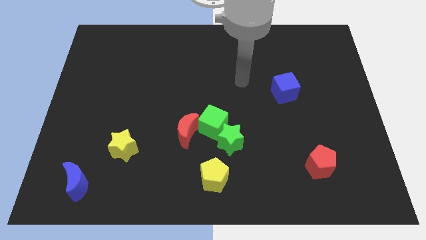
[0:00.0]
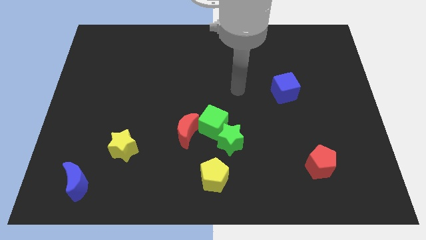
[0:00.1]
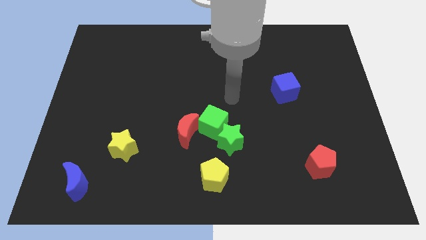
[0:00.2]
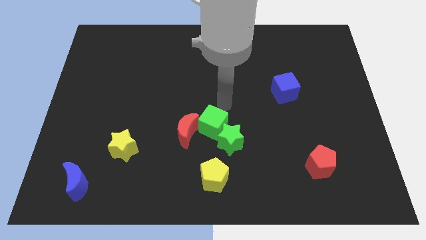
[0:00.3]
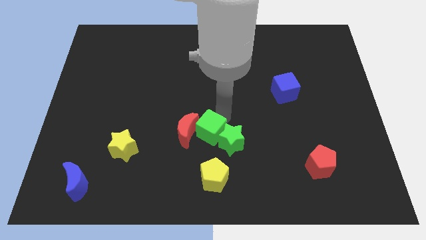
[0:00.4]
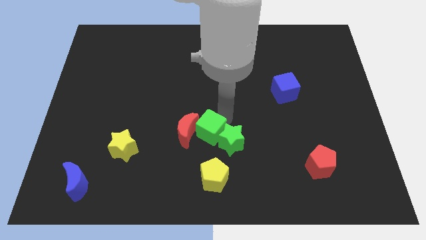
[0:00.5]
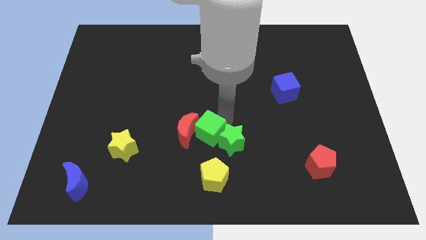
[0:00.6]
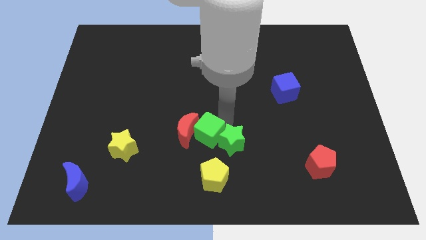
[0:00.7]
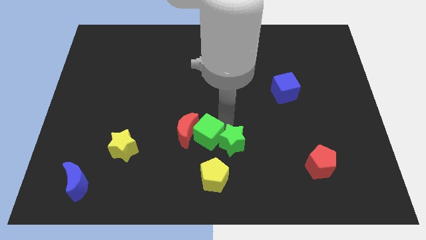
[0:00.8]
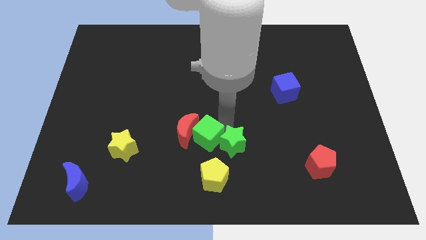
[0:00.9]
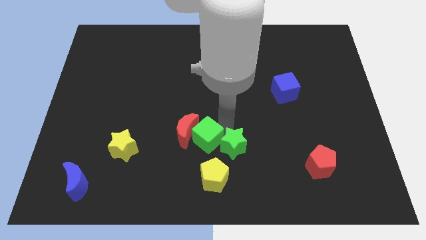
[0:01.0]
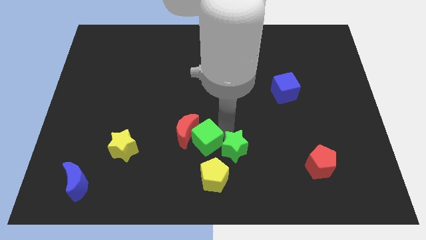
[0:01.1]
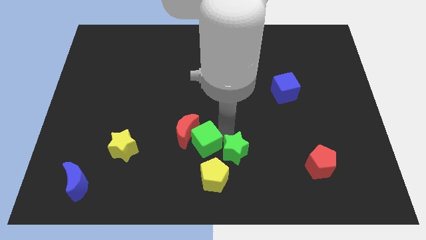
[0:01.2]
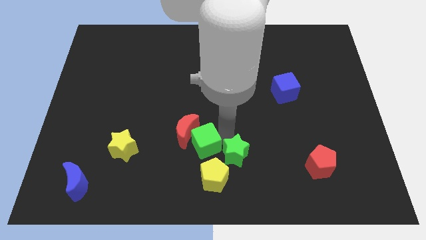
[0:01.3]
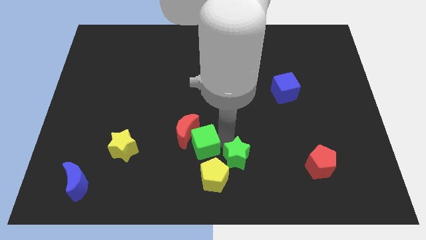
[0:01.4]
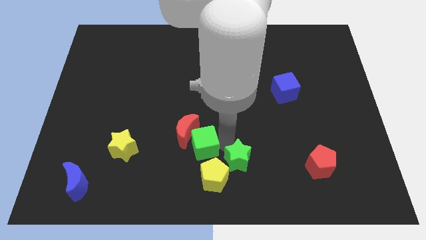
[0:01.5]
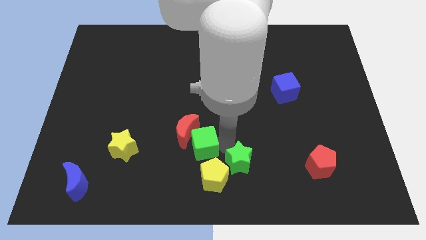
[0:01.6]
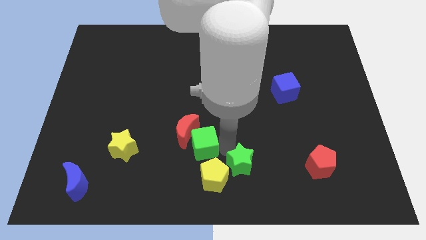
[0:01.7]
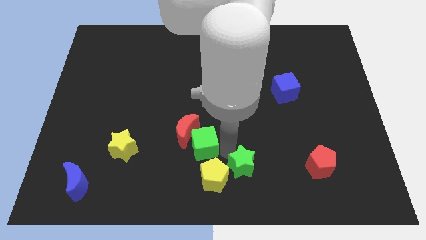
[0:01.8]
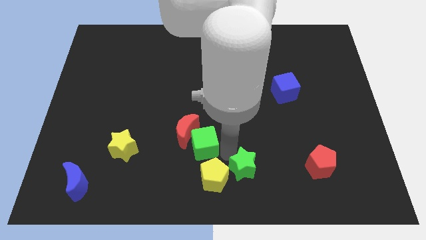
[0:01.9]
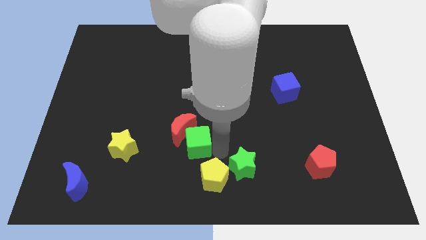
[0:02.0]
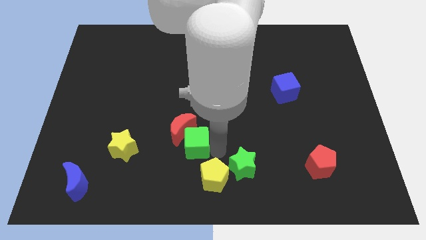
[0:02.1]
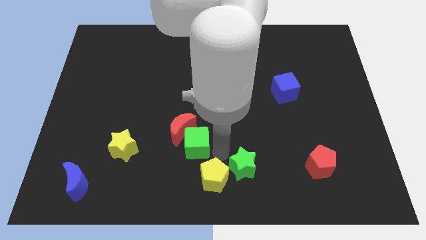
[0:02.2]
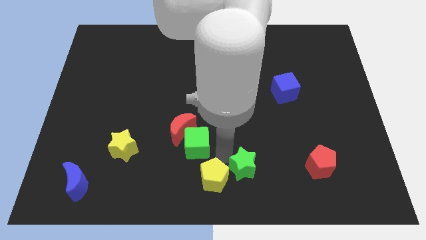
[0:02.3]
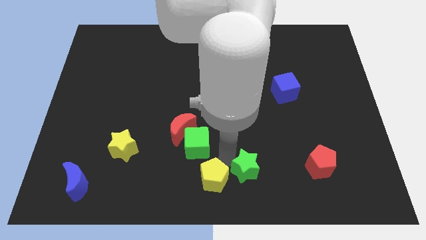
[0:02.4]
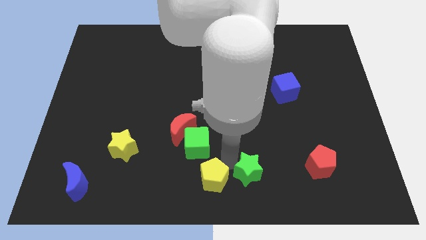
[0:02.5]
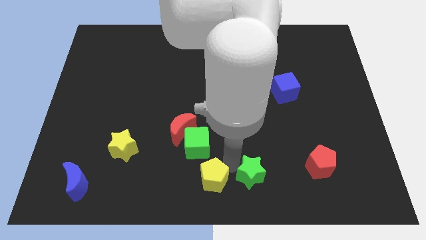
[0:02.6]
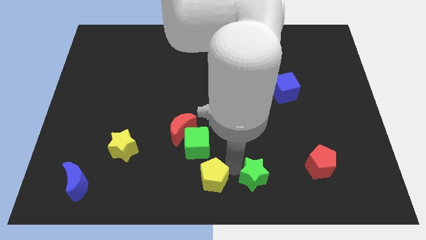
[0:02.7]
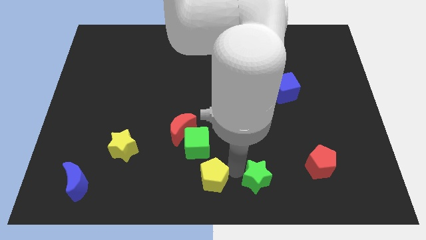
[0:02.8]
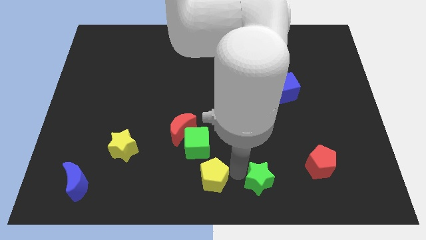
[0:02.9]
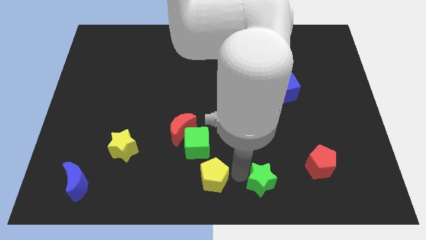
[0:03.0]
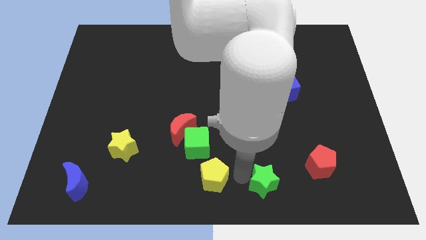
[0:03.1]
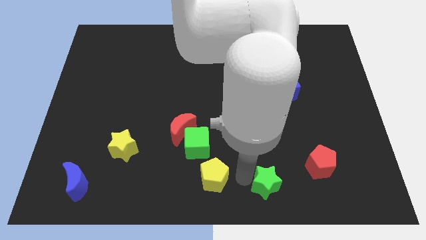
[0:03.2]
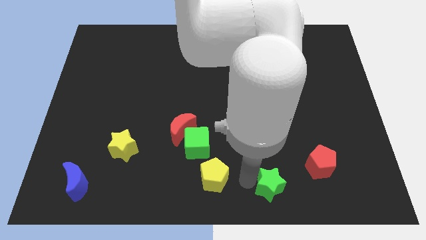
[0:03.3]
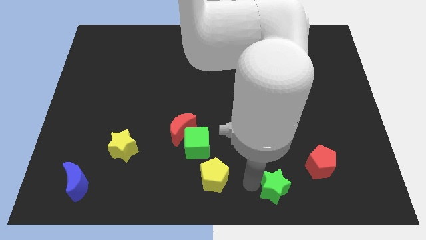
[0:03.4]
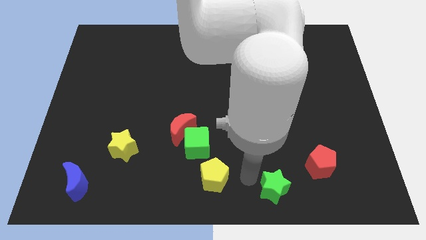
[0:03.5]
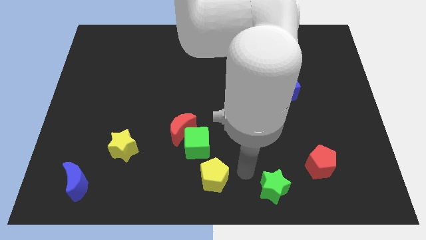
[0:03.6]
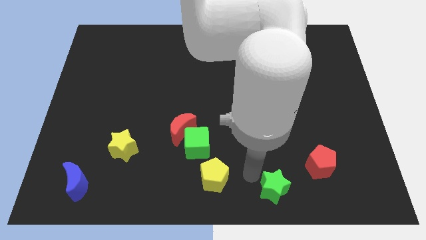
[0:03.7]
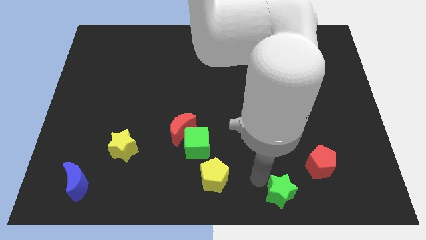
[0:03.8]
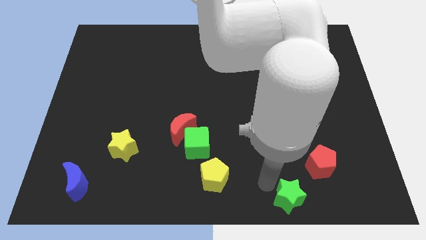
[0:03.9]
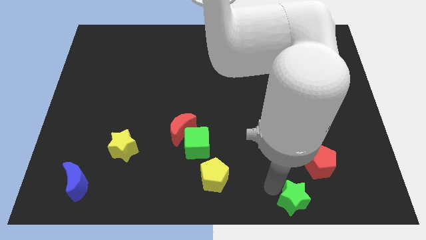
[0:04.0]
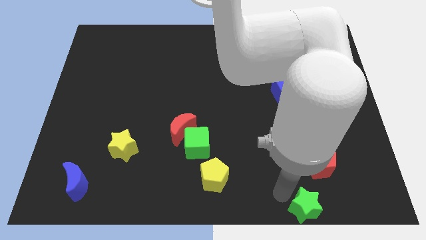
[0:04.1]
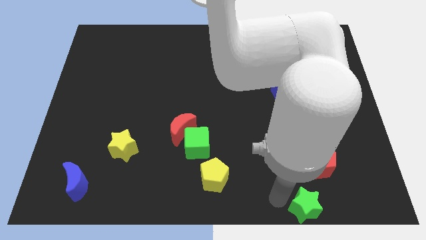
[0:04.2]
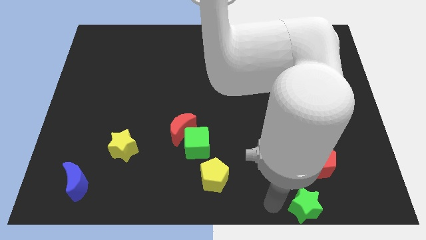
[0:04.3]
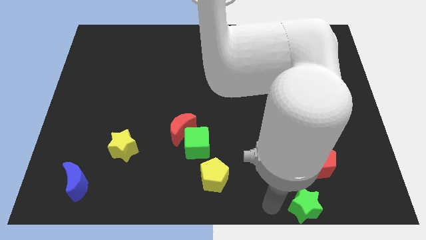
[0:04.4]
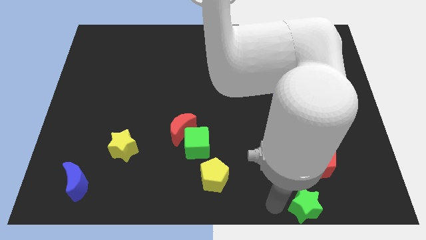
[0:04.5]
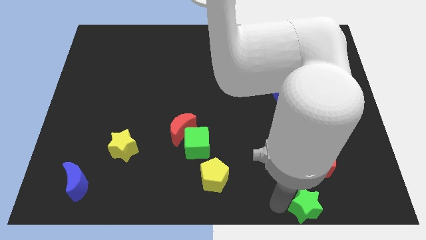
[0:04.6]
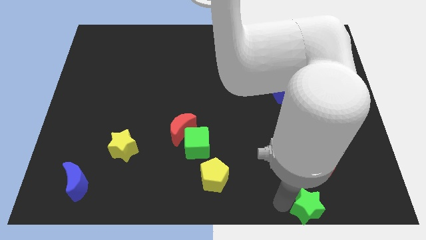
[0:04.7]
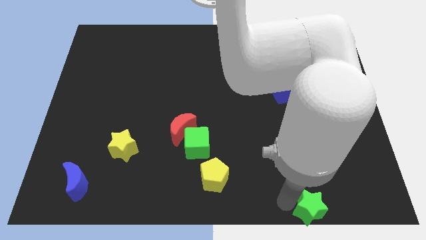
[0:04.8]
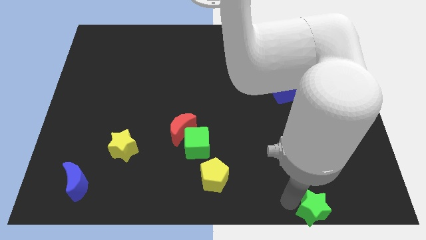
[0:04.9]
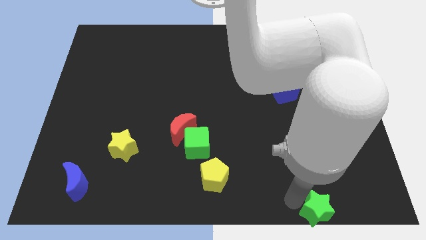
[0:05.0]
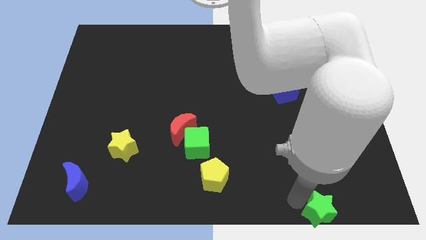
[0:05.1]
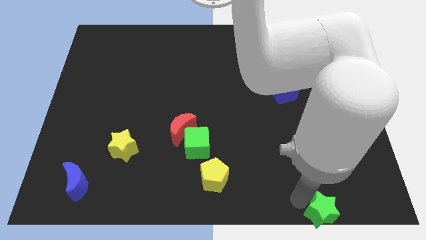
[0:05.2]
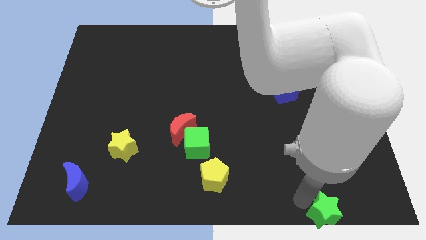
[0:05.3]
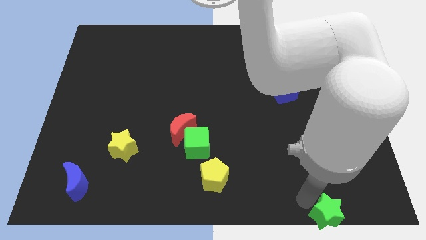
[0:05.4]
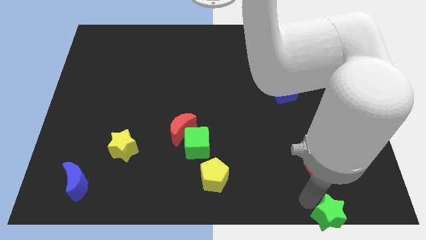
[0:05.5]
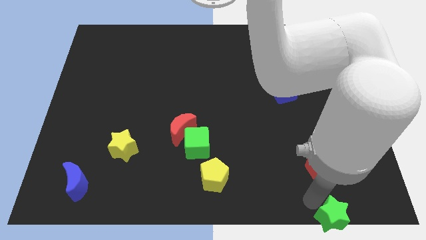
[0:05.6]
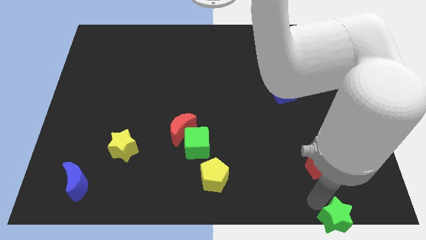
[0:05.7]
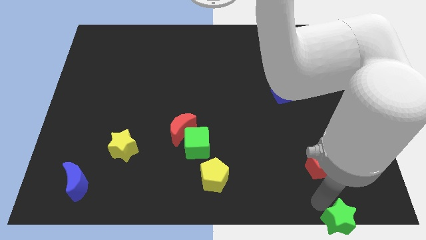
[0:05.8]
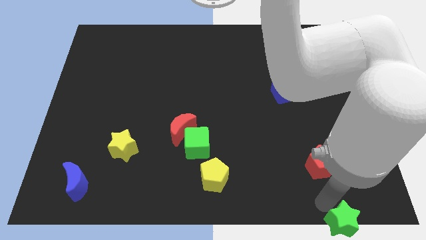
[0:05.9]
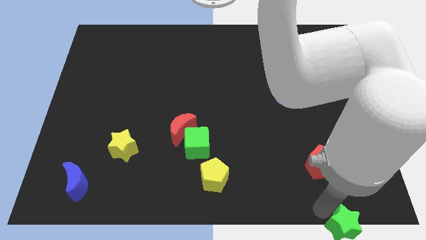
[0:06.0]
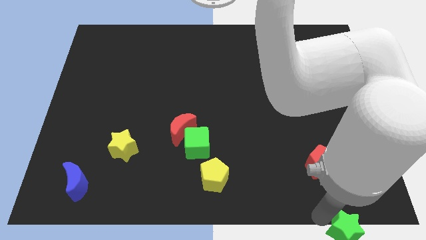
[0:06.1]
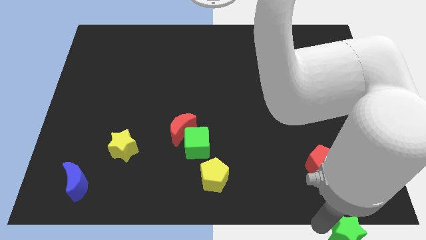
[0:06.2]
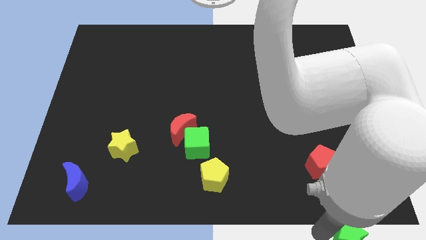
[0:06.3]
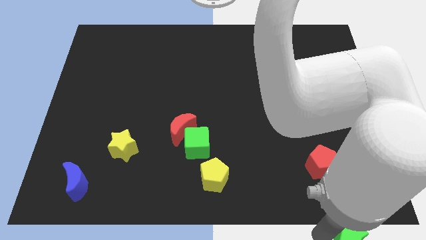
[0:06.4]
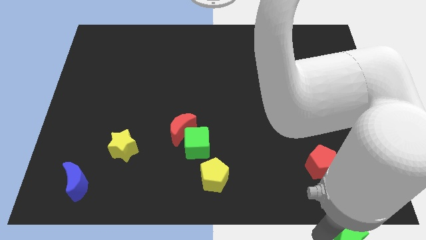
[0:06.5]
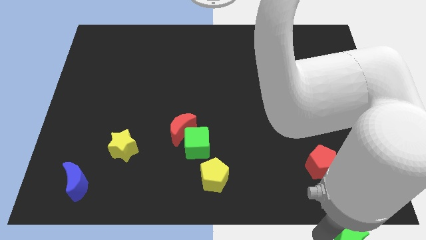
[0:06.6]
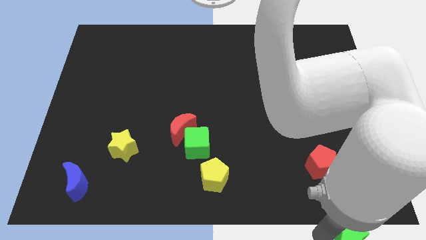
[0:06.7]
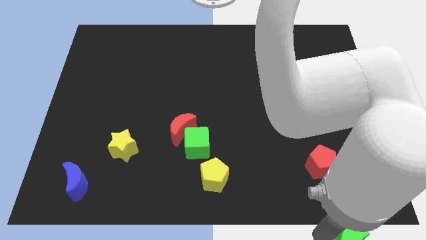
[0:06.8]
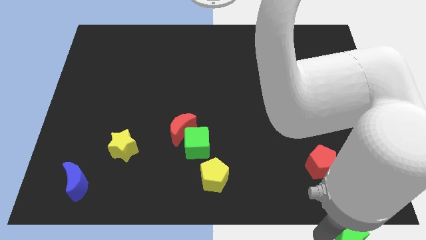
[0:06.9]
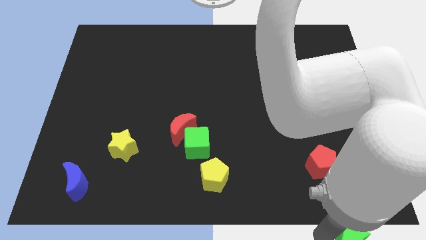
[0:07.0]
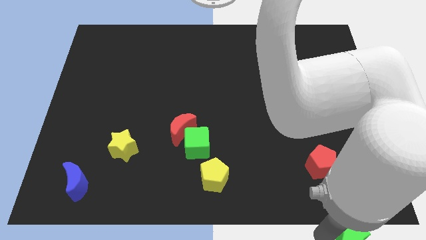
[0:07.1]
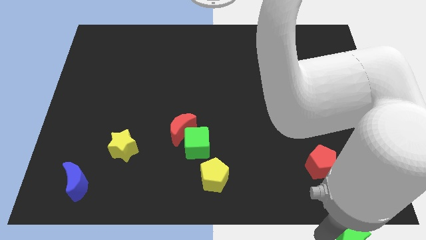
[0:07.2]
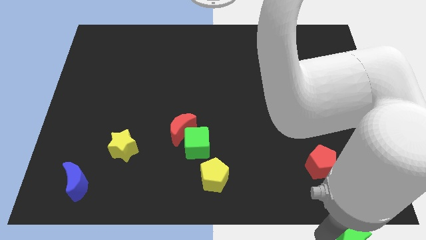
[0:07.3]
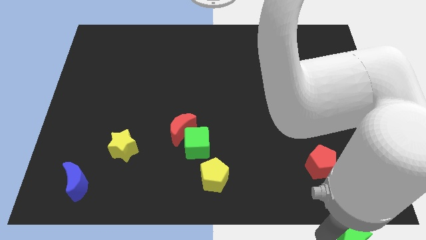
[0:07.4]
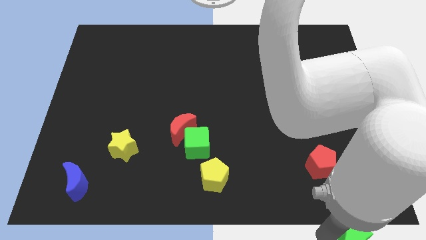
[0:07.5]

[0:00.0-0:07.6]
slide the green star to the bottom right corner
